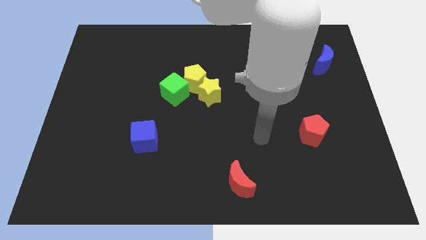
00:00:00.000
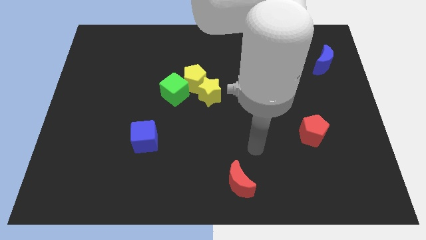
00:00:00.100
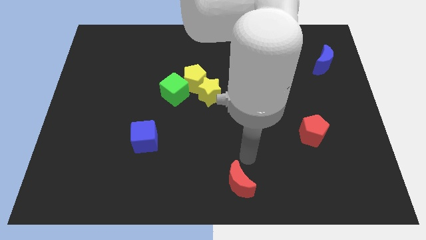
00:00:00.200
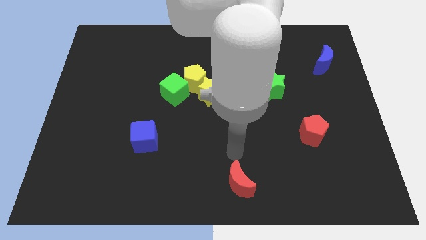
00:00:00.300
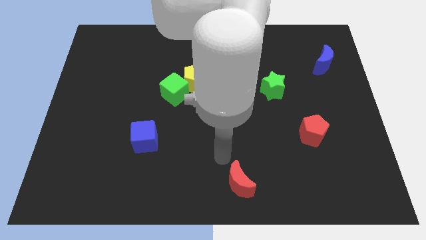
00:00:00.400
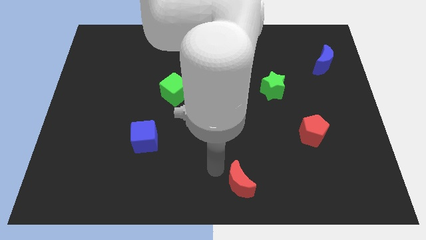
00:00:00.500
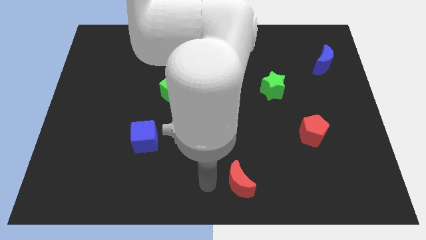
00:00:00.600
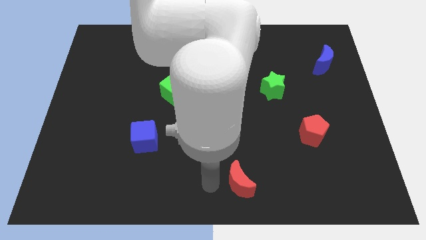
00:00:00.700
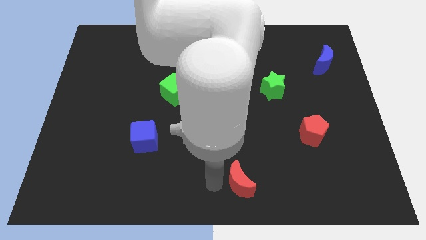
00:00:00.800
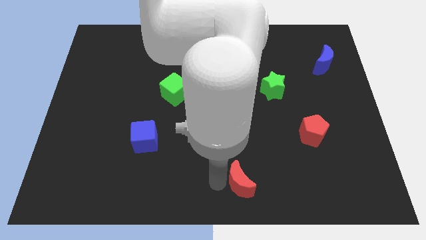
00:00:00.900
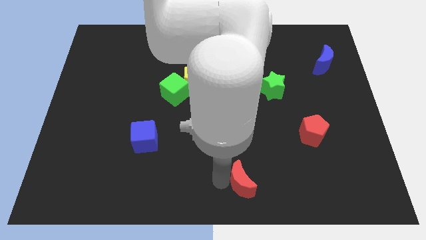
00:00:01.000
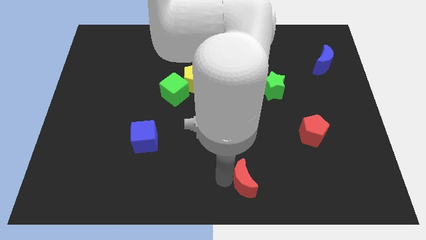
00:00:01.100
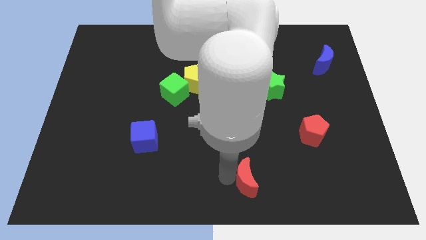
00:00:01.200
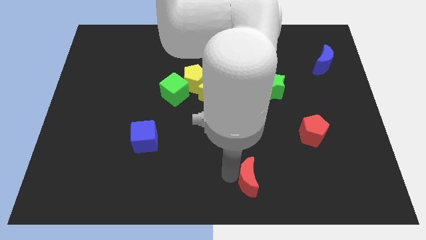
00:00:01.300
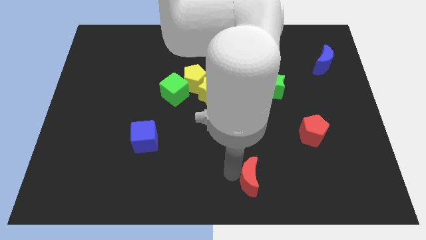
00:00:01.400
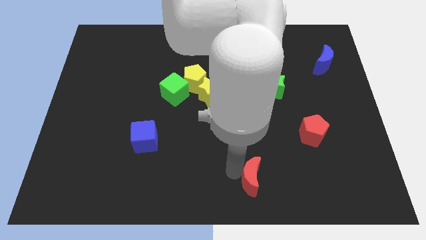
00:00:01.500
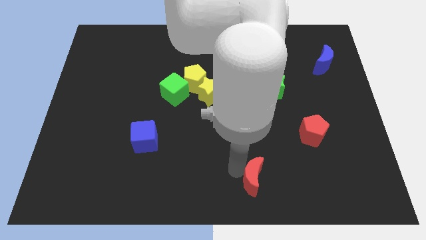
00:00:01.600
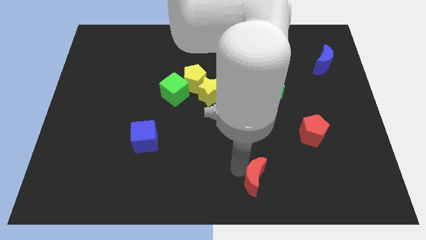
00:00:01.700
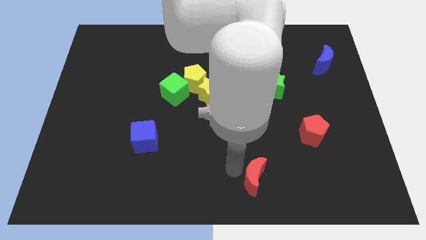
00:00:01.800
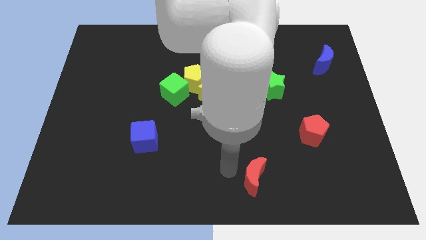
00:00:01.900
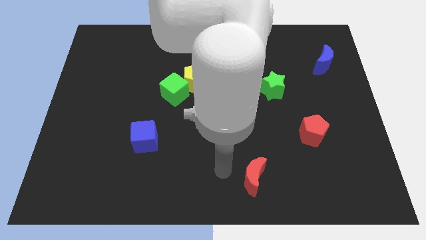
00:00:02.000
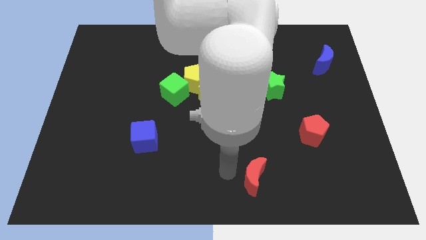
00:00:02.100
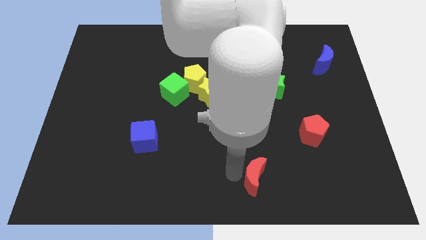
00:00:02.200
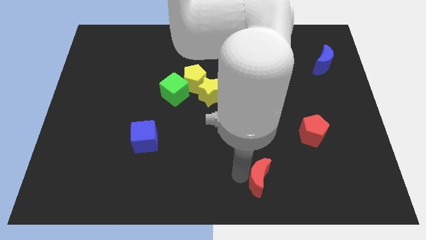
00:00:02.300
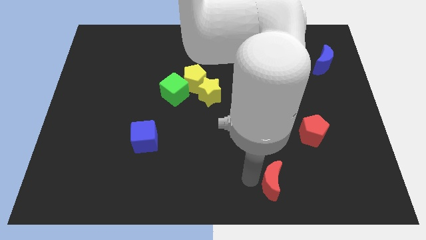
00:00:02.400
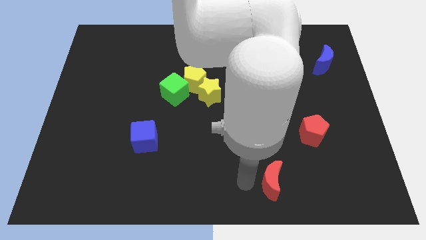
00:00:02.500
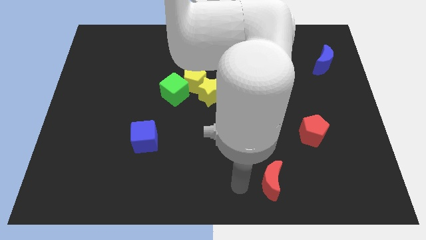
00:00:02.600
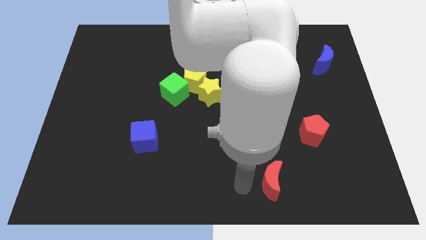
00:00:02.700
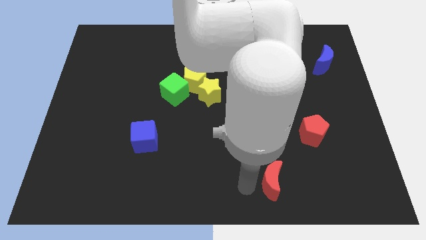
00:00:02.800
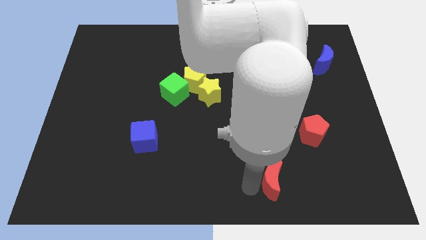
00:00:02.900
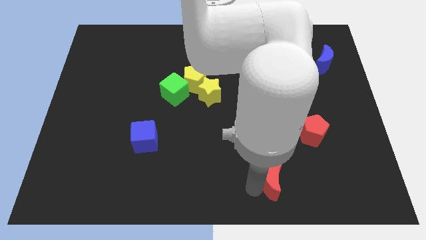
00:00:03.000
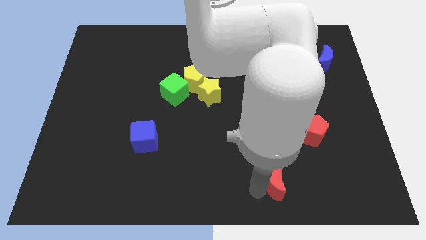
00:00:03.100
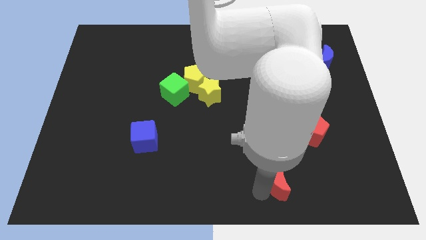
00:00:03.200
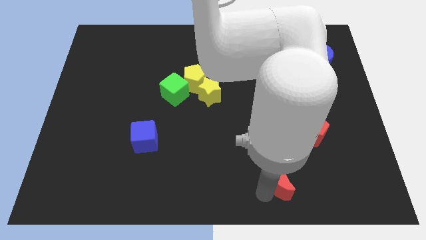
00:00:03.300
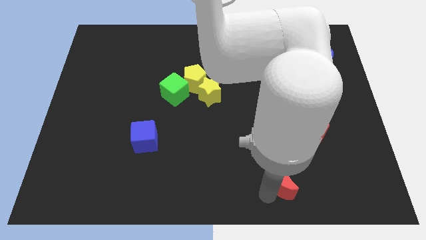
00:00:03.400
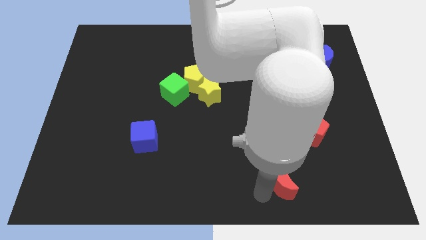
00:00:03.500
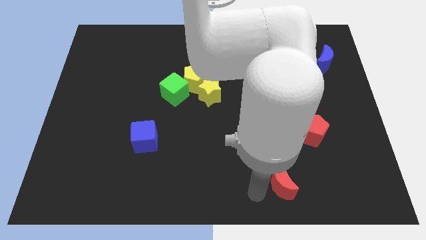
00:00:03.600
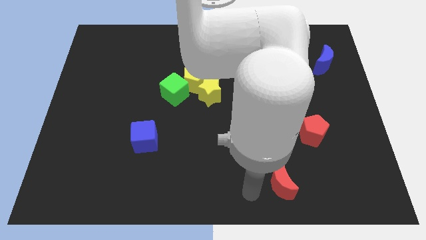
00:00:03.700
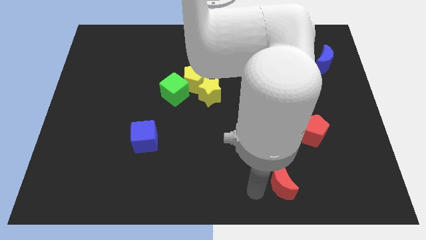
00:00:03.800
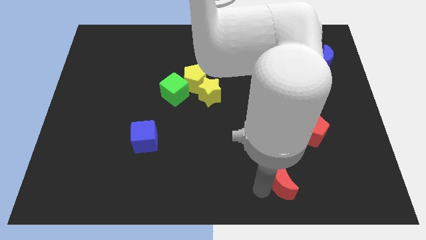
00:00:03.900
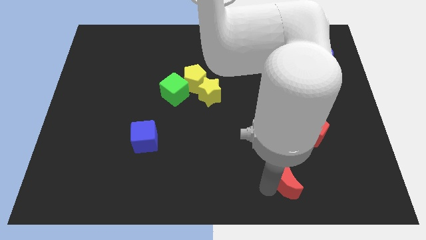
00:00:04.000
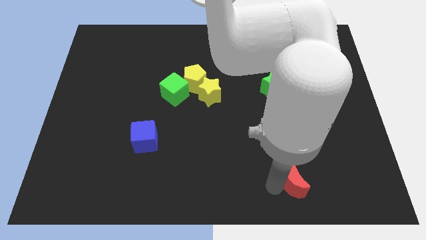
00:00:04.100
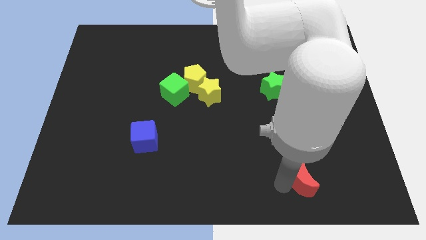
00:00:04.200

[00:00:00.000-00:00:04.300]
push the red moon to the bottom of the red pentagon

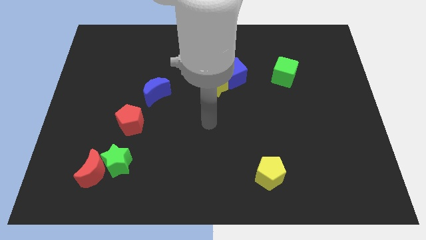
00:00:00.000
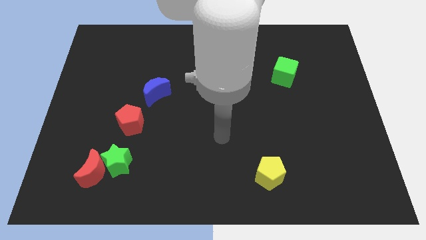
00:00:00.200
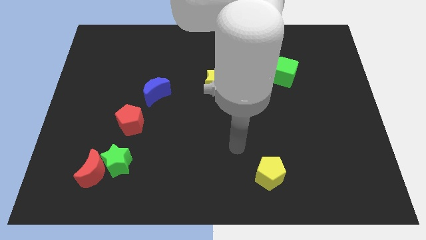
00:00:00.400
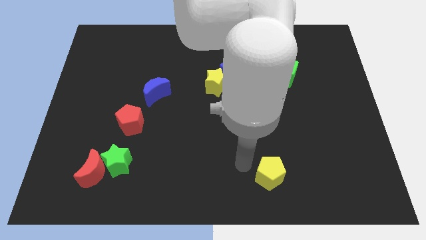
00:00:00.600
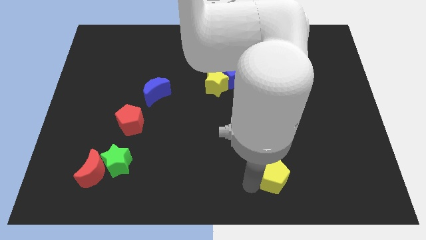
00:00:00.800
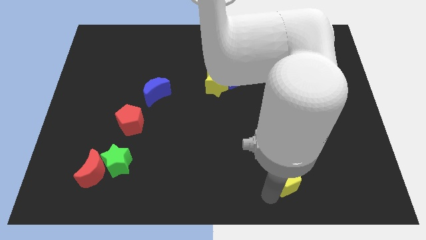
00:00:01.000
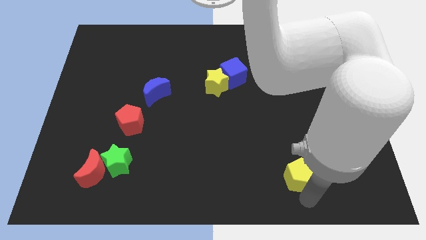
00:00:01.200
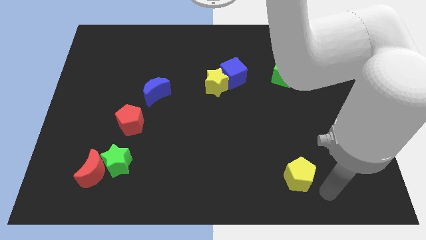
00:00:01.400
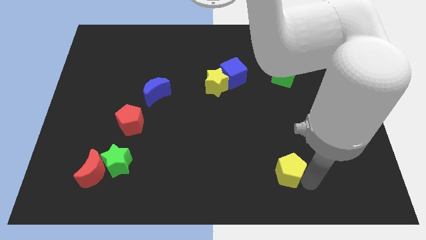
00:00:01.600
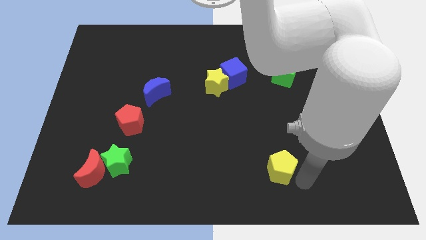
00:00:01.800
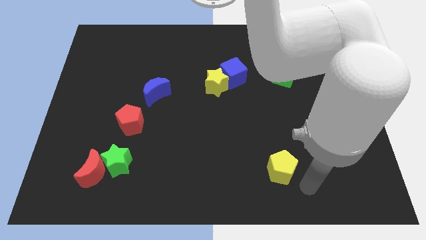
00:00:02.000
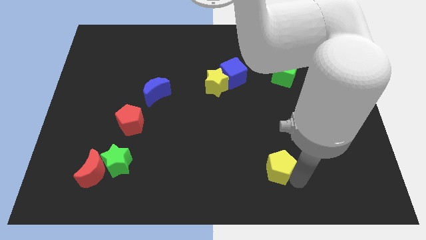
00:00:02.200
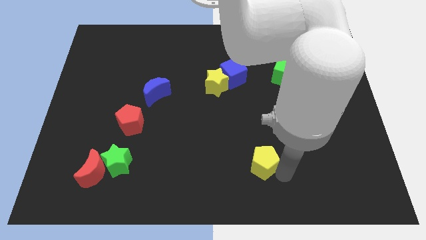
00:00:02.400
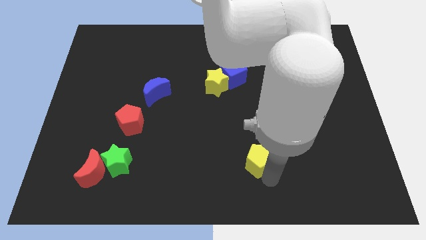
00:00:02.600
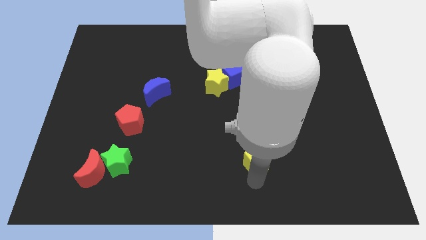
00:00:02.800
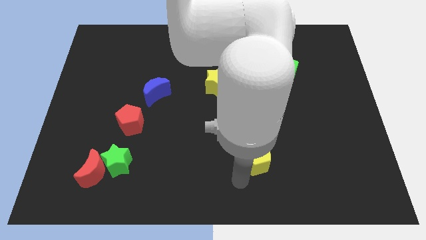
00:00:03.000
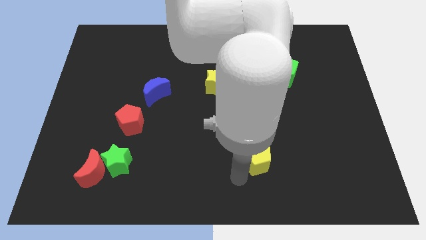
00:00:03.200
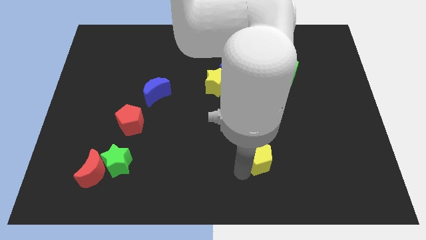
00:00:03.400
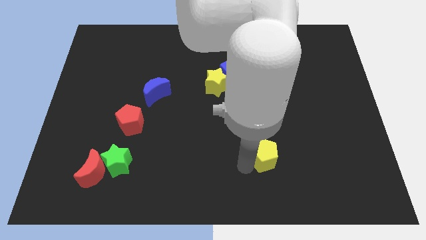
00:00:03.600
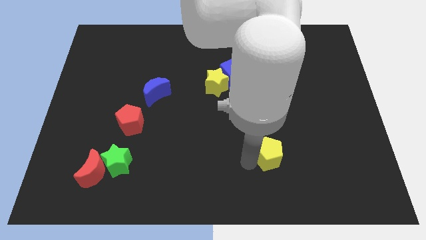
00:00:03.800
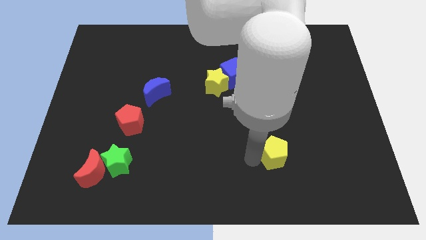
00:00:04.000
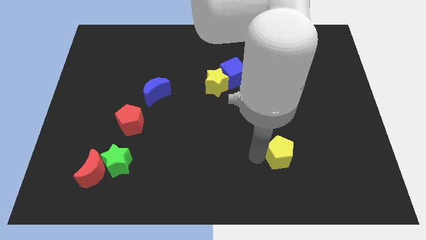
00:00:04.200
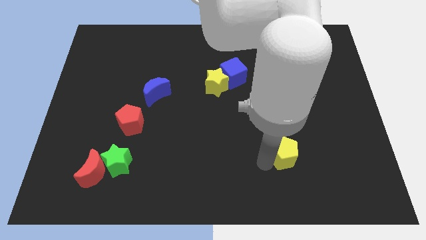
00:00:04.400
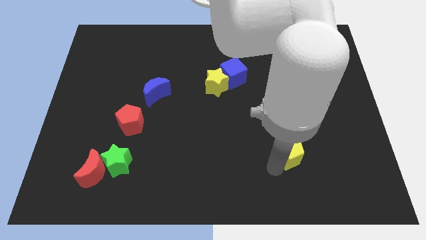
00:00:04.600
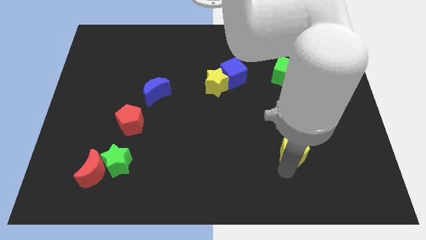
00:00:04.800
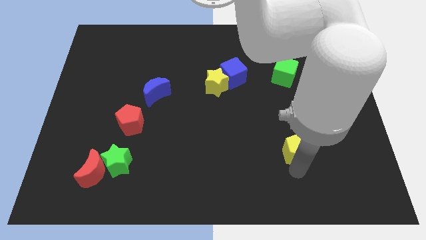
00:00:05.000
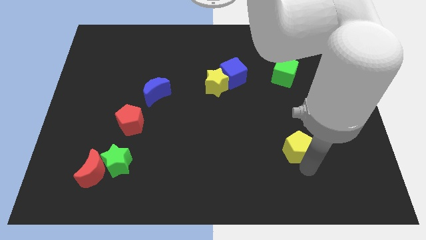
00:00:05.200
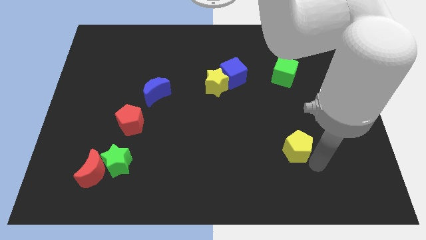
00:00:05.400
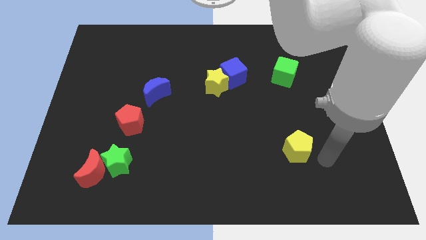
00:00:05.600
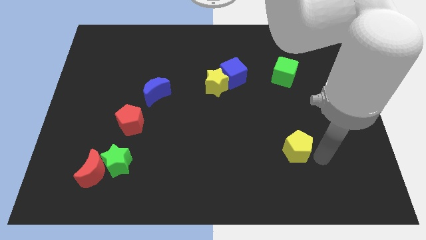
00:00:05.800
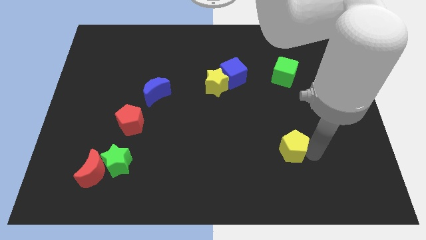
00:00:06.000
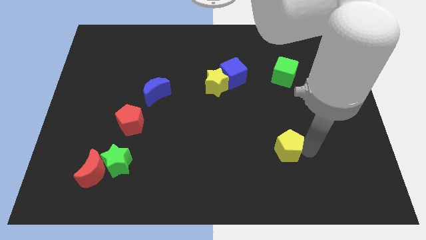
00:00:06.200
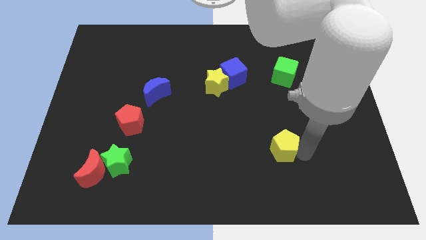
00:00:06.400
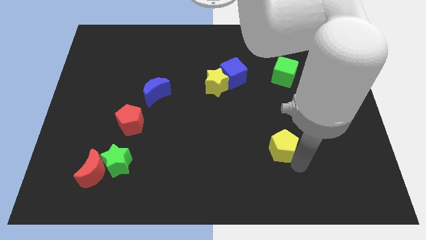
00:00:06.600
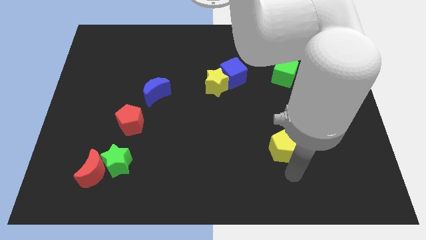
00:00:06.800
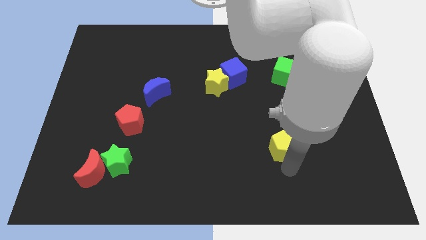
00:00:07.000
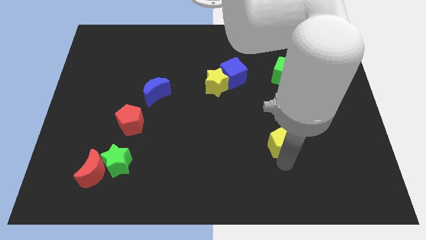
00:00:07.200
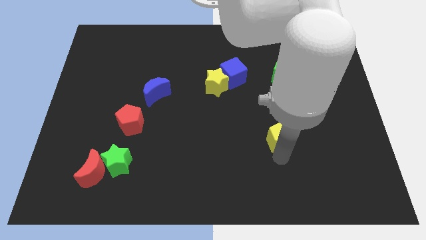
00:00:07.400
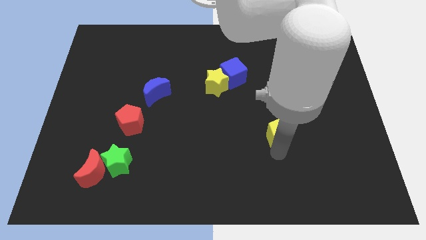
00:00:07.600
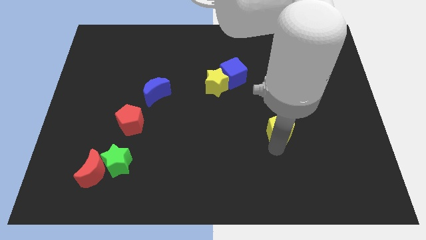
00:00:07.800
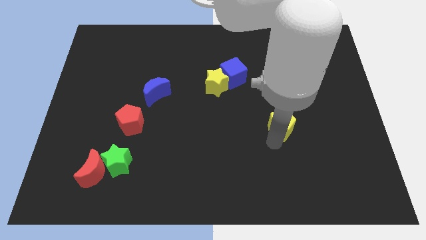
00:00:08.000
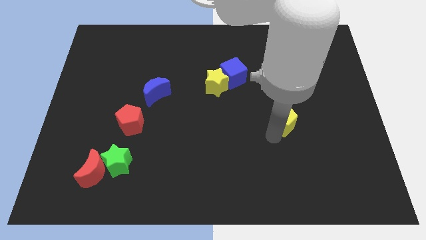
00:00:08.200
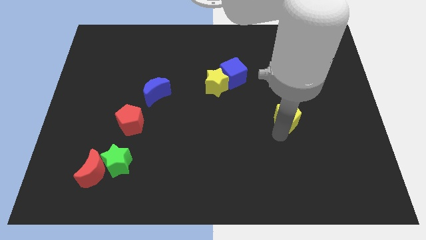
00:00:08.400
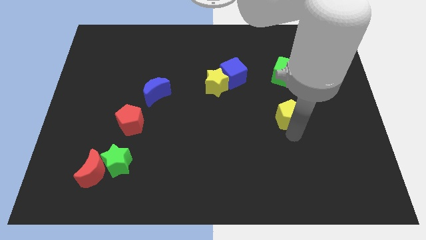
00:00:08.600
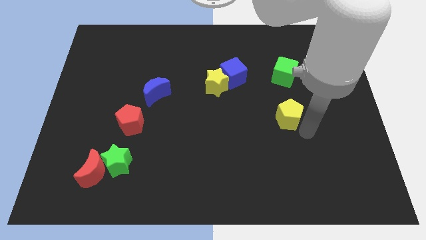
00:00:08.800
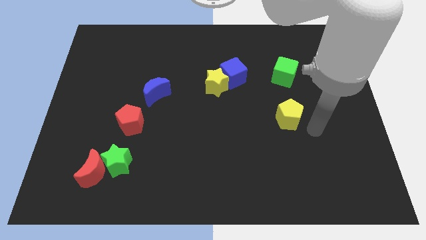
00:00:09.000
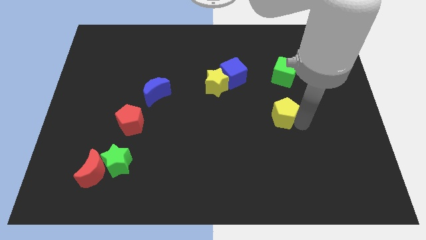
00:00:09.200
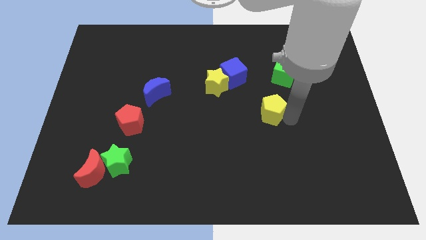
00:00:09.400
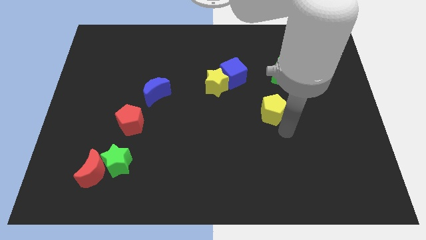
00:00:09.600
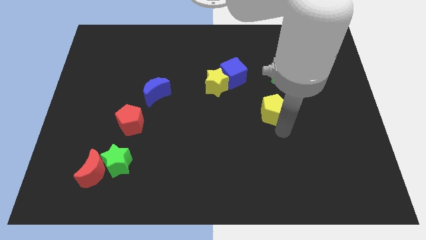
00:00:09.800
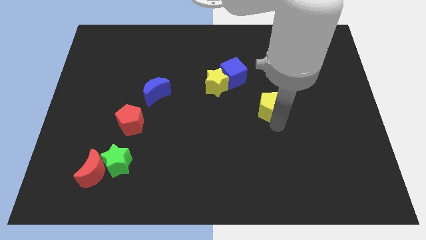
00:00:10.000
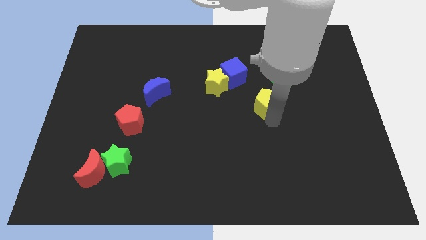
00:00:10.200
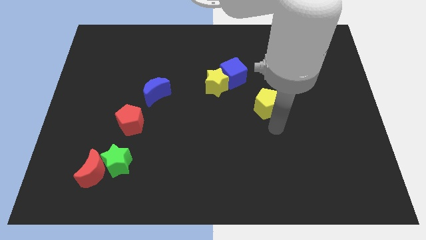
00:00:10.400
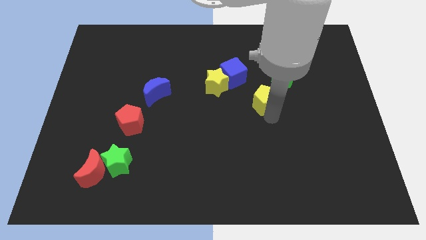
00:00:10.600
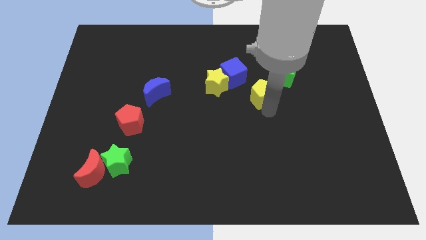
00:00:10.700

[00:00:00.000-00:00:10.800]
push the yellow pentagon just right of the yellow star
